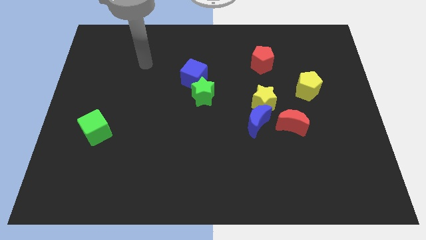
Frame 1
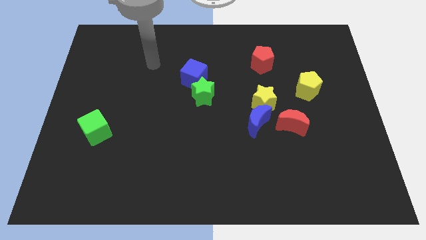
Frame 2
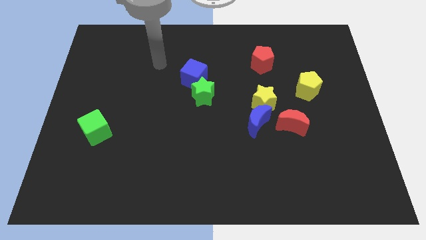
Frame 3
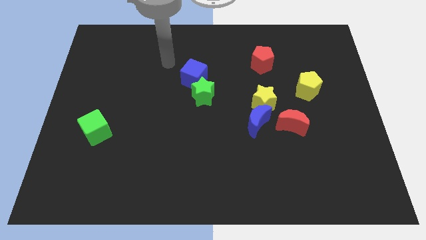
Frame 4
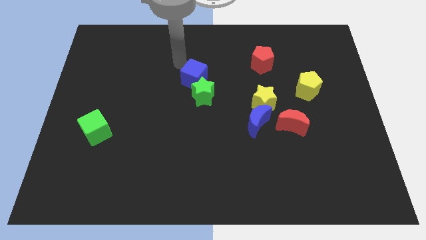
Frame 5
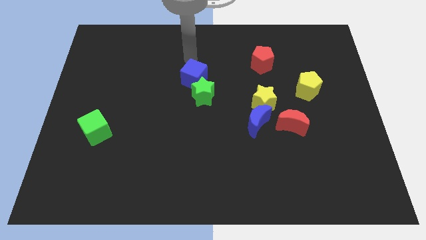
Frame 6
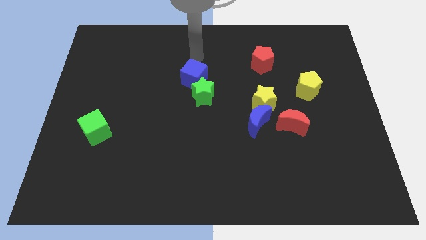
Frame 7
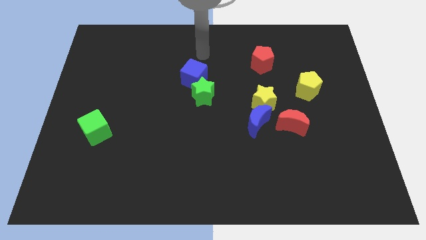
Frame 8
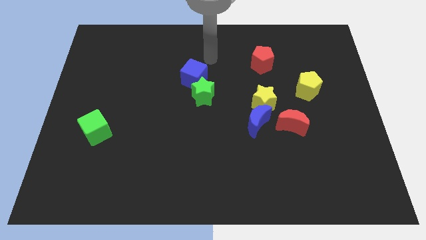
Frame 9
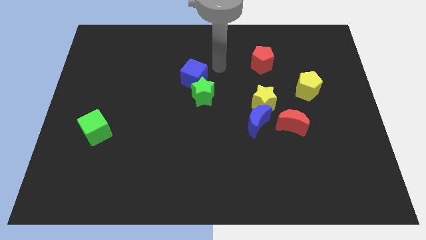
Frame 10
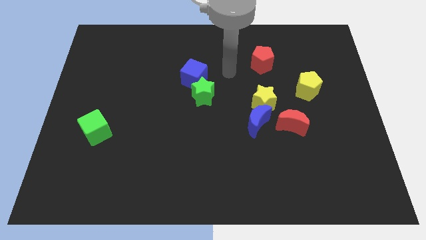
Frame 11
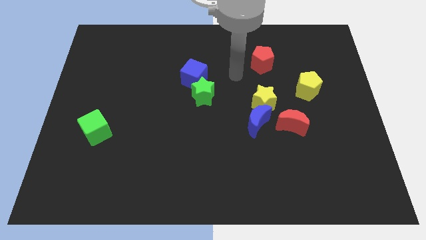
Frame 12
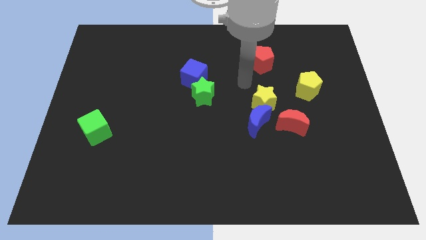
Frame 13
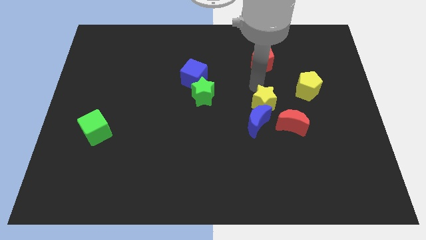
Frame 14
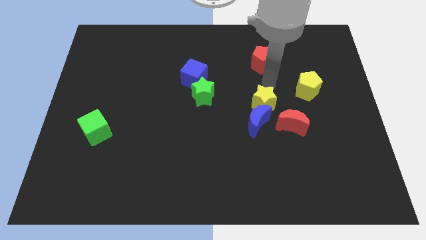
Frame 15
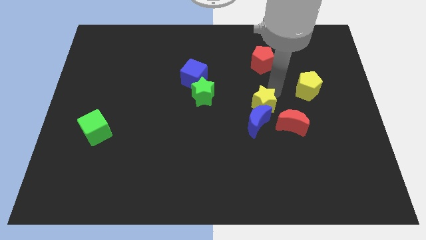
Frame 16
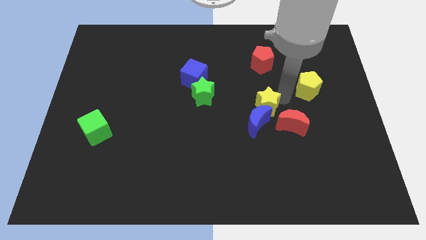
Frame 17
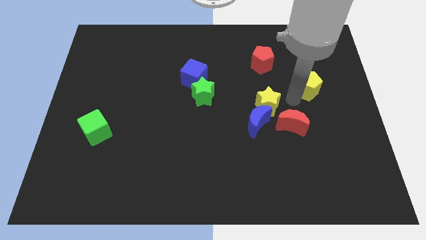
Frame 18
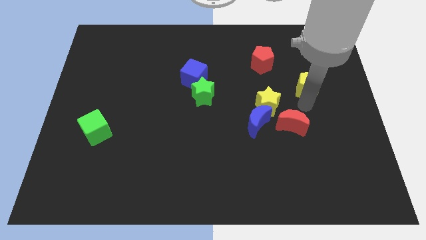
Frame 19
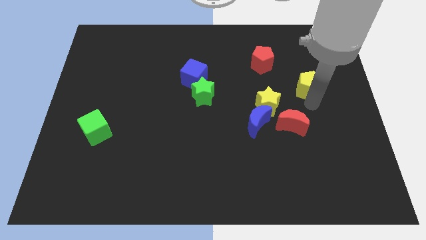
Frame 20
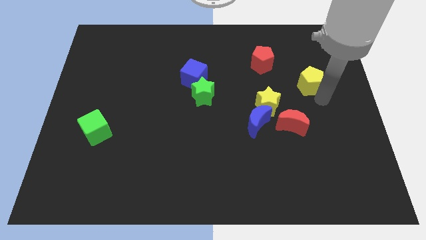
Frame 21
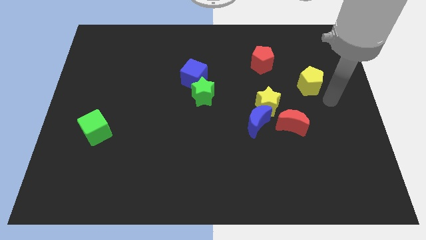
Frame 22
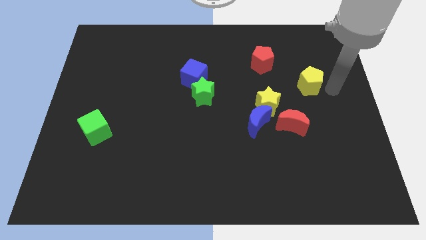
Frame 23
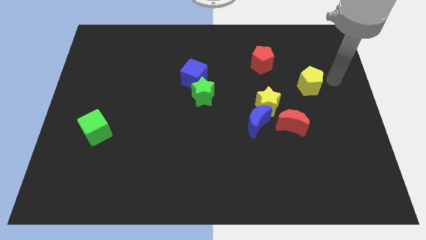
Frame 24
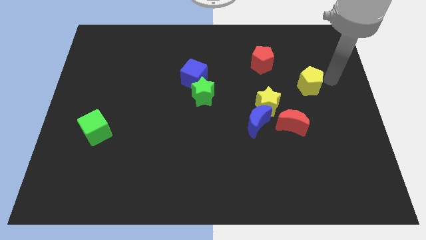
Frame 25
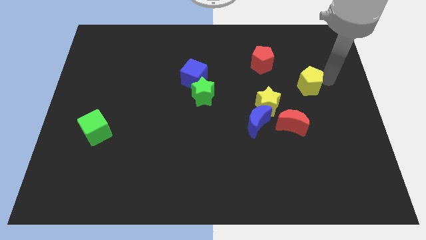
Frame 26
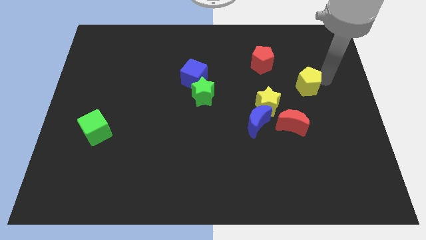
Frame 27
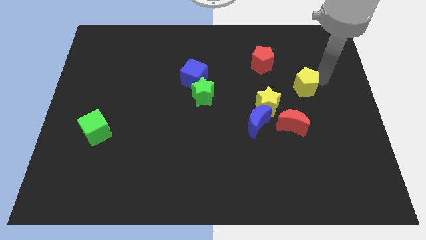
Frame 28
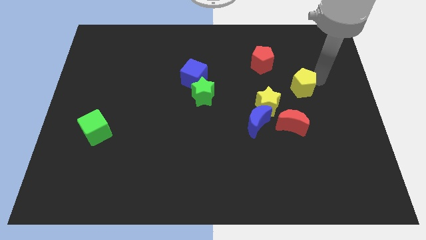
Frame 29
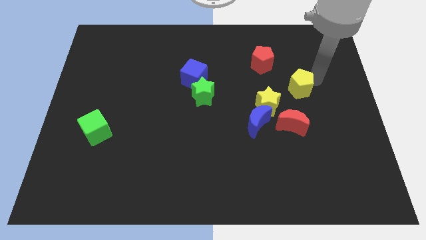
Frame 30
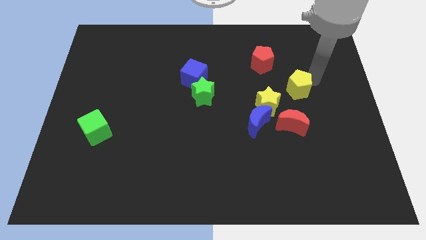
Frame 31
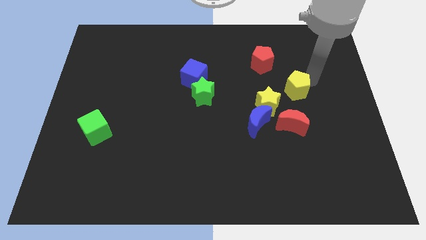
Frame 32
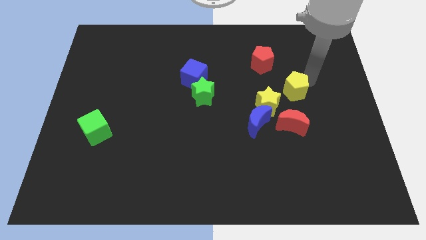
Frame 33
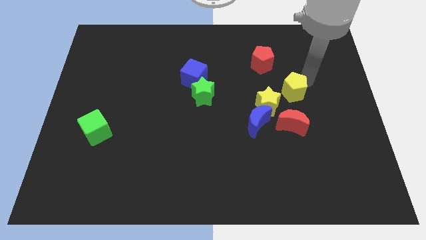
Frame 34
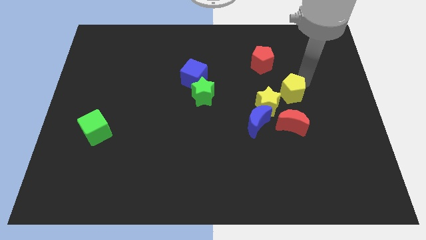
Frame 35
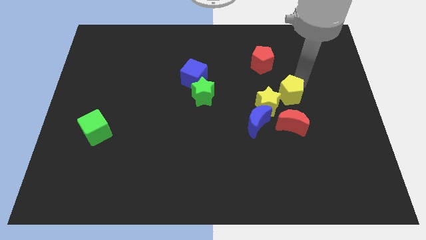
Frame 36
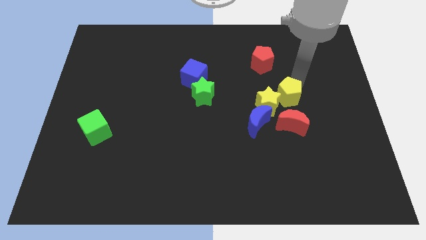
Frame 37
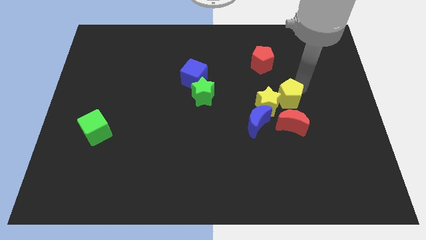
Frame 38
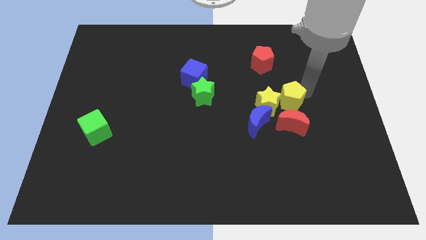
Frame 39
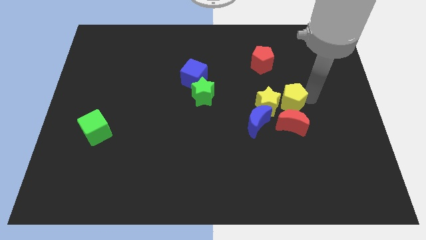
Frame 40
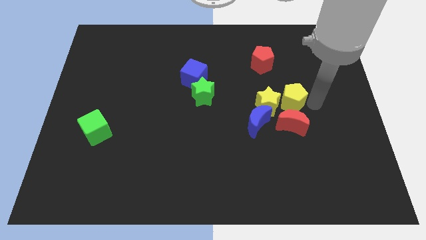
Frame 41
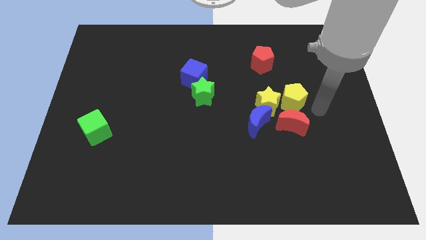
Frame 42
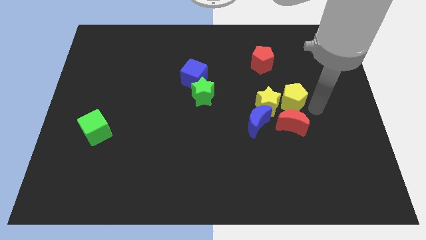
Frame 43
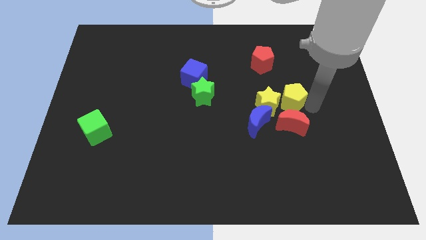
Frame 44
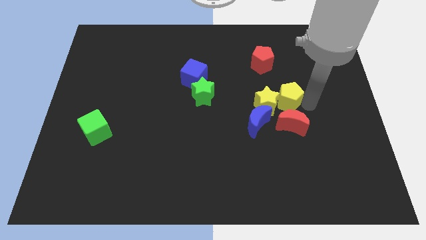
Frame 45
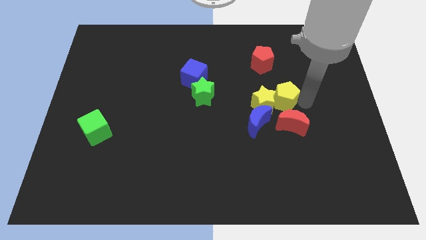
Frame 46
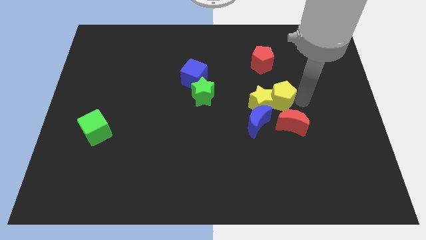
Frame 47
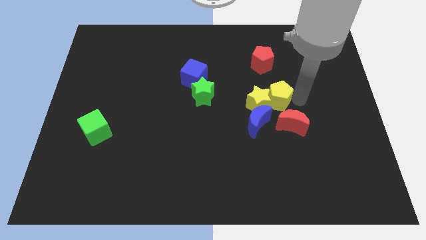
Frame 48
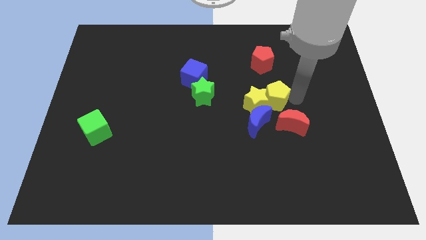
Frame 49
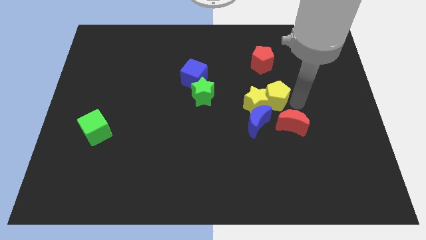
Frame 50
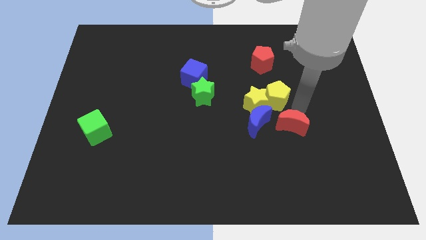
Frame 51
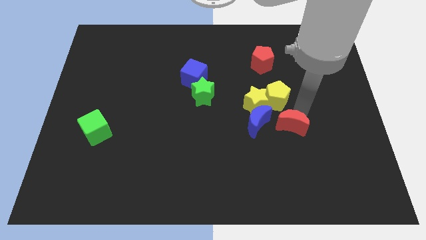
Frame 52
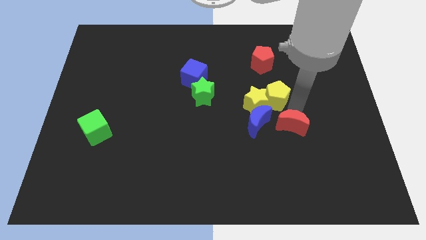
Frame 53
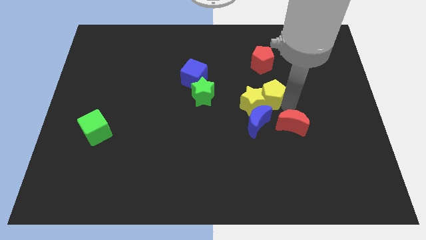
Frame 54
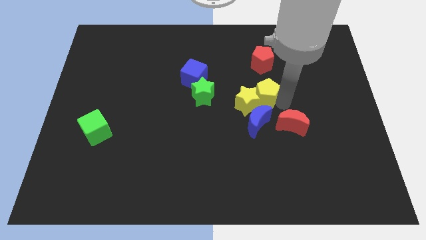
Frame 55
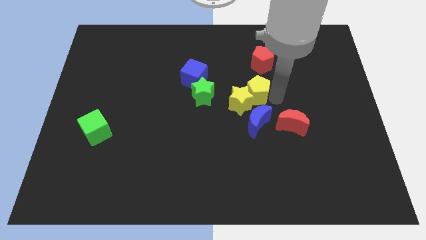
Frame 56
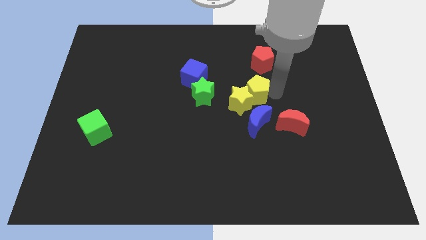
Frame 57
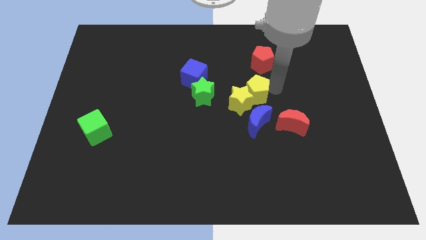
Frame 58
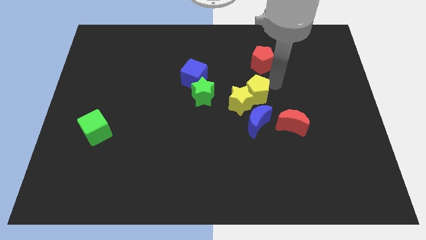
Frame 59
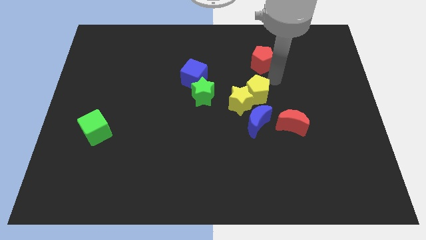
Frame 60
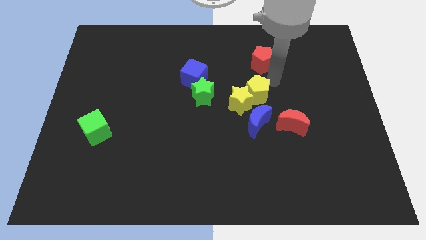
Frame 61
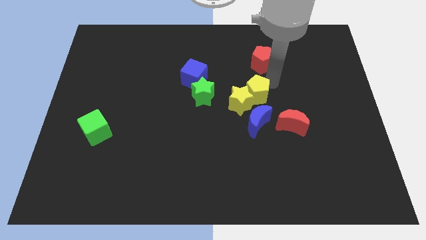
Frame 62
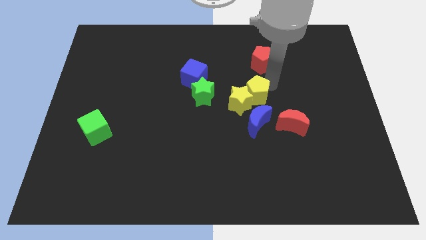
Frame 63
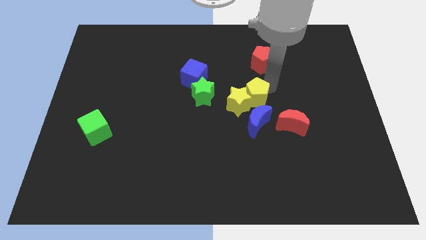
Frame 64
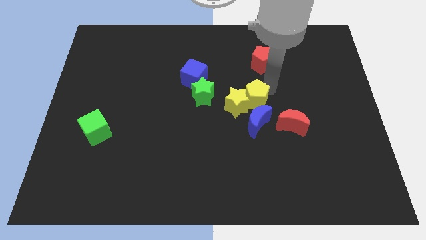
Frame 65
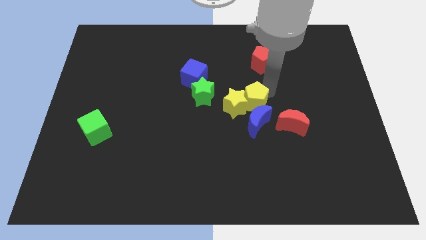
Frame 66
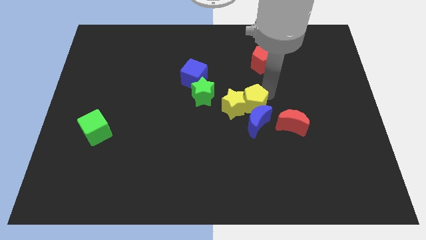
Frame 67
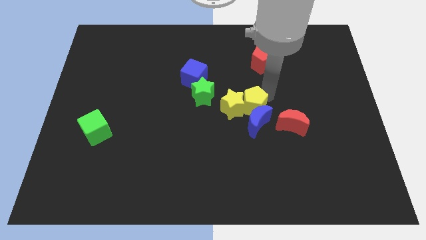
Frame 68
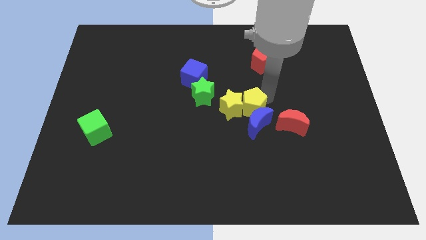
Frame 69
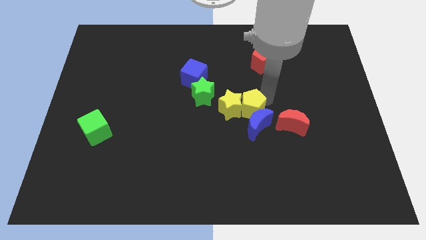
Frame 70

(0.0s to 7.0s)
slide the yellow pentagon to the left of the red moon
